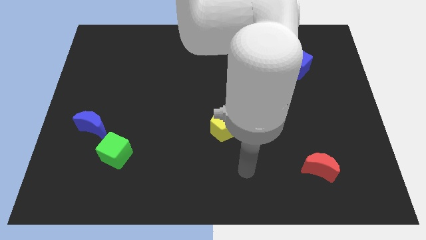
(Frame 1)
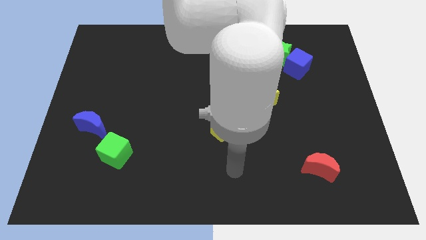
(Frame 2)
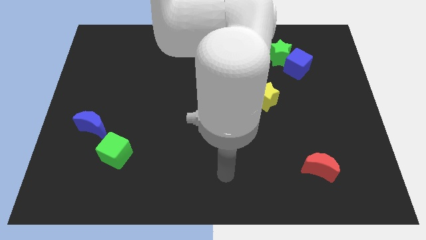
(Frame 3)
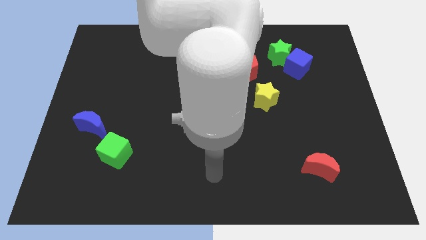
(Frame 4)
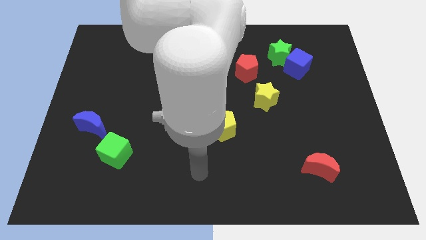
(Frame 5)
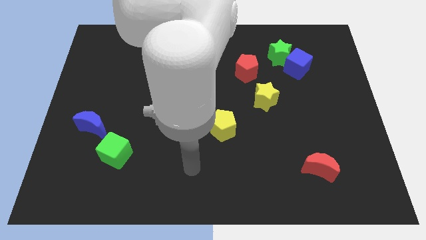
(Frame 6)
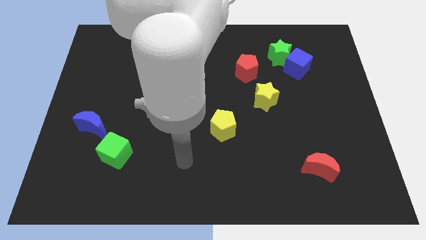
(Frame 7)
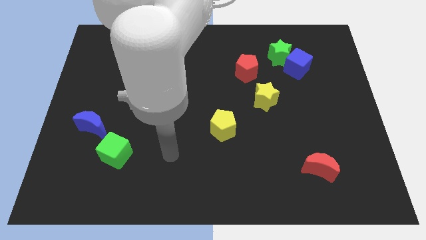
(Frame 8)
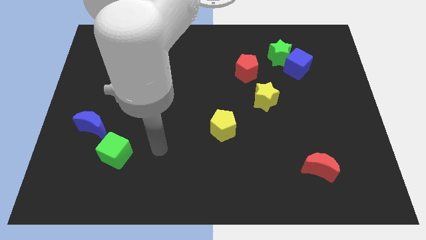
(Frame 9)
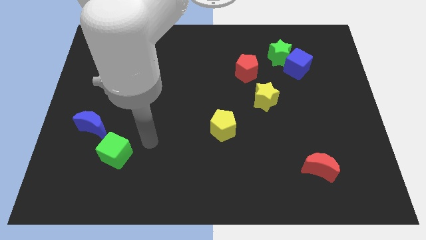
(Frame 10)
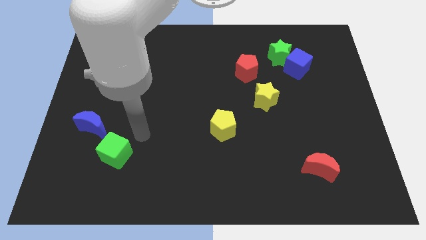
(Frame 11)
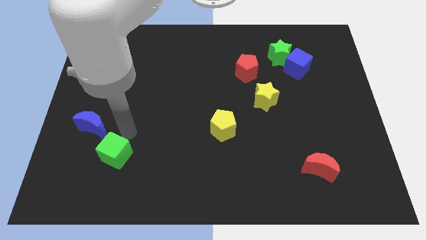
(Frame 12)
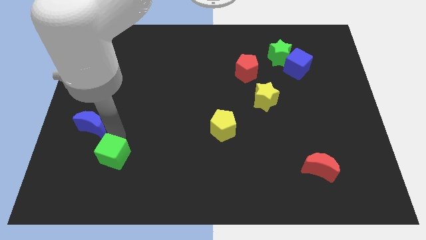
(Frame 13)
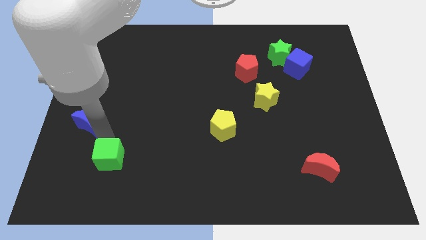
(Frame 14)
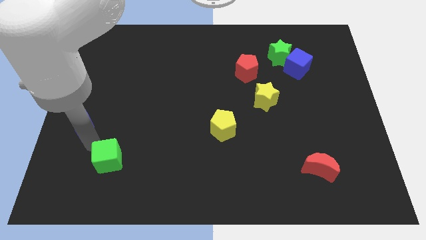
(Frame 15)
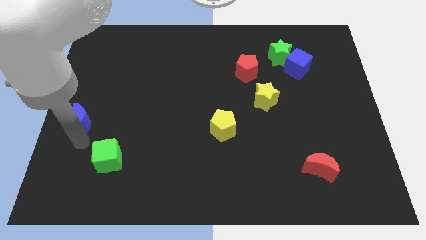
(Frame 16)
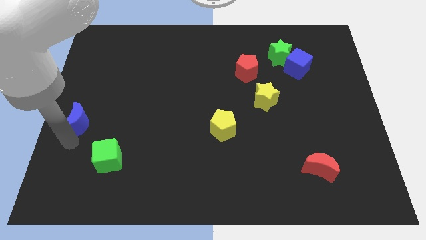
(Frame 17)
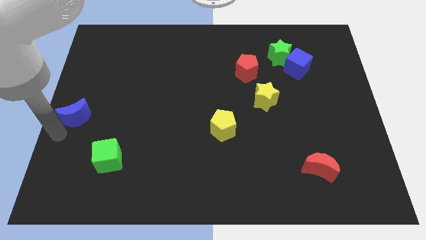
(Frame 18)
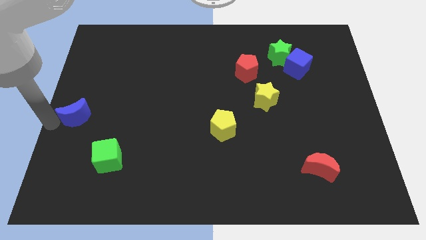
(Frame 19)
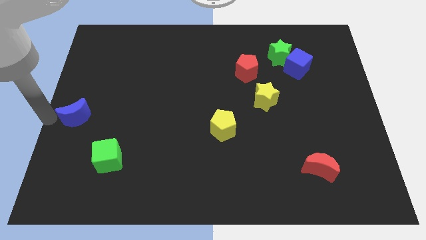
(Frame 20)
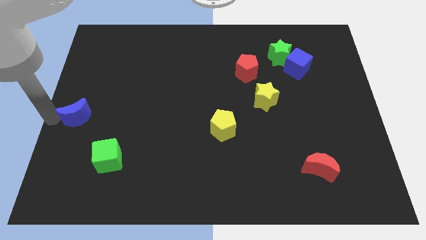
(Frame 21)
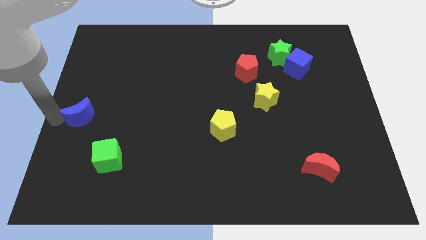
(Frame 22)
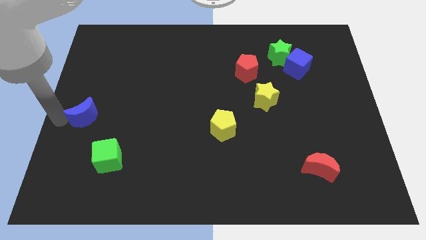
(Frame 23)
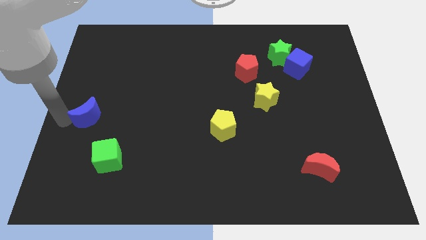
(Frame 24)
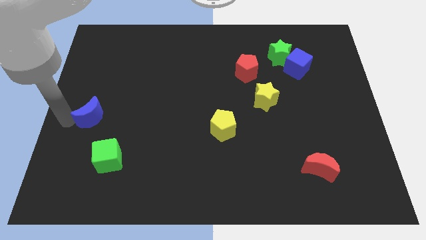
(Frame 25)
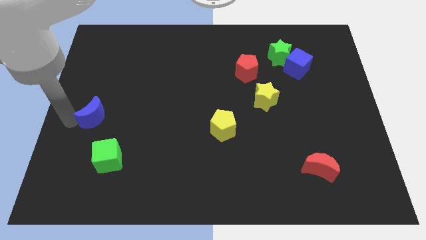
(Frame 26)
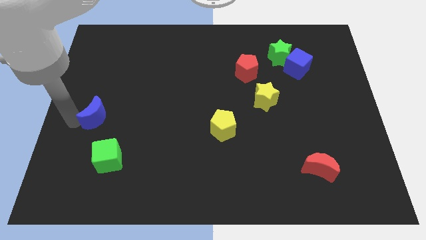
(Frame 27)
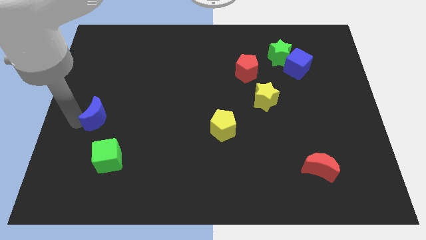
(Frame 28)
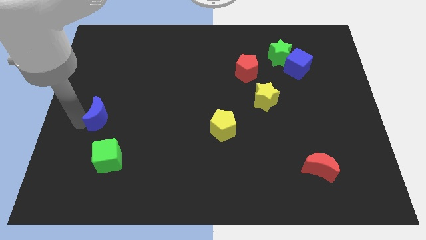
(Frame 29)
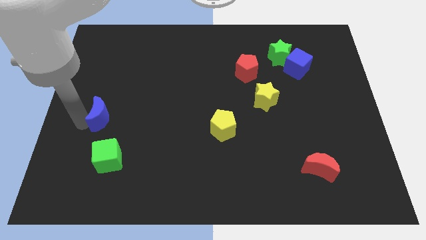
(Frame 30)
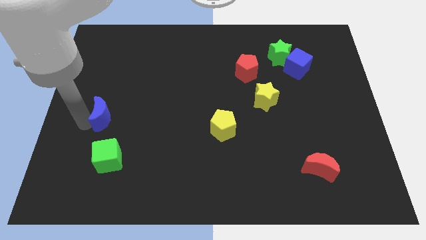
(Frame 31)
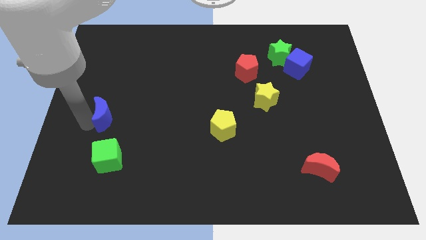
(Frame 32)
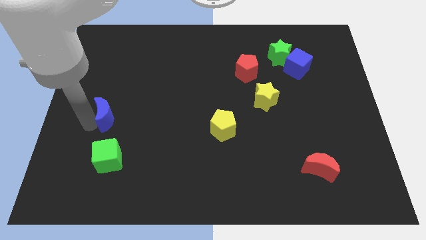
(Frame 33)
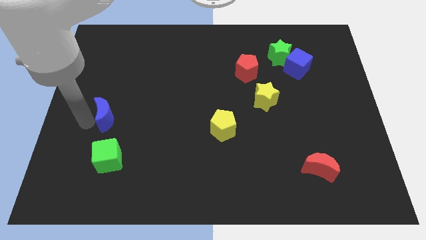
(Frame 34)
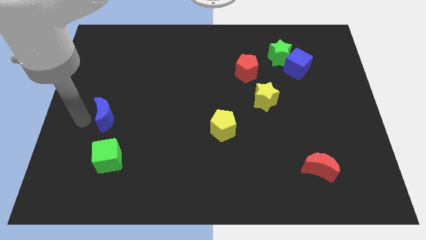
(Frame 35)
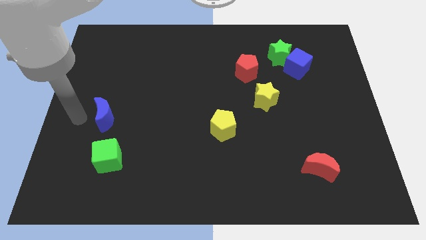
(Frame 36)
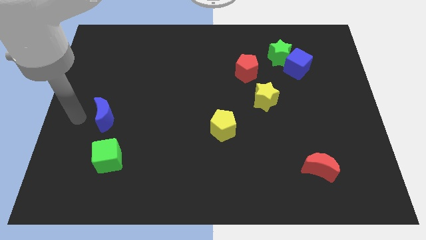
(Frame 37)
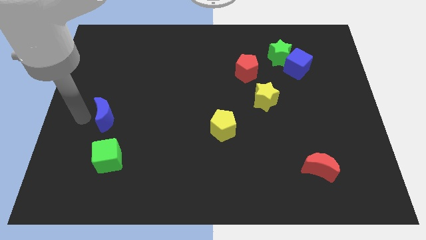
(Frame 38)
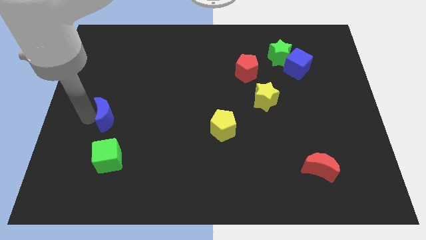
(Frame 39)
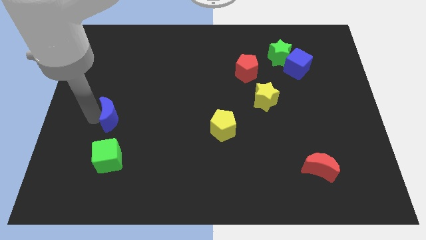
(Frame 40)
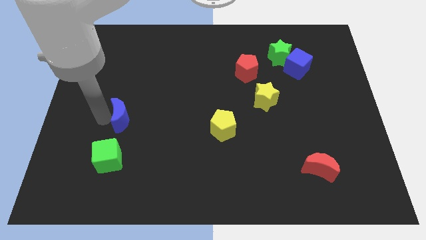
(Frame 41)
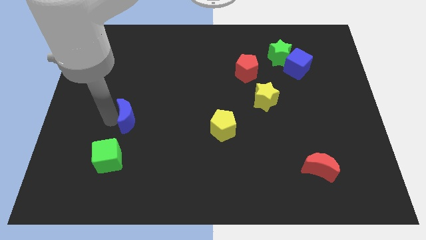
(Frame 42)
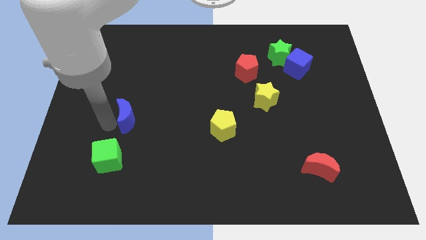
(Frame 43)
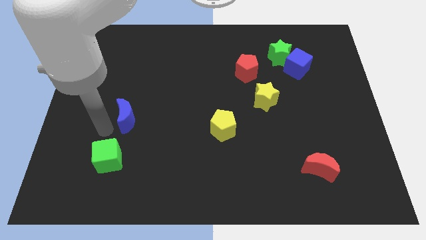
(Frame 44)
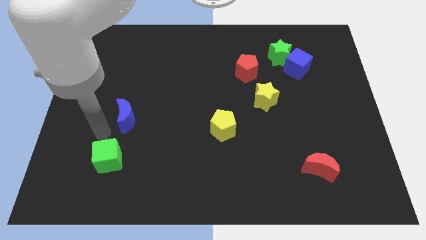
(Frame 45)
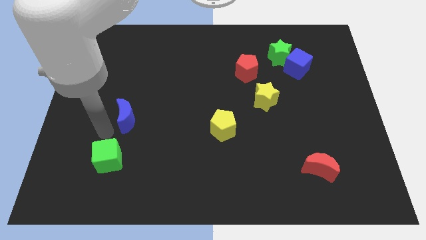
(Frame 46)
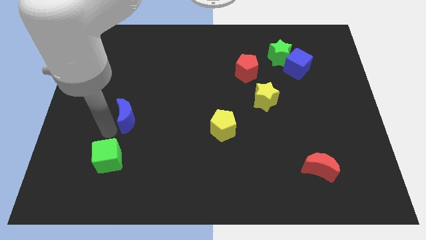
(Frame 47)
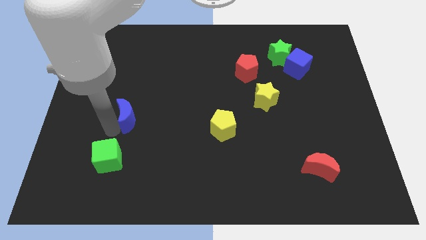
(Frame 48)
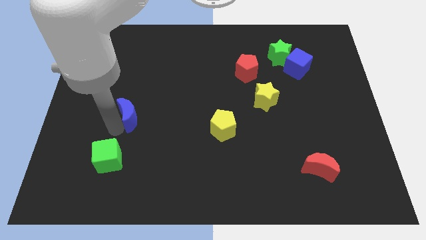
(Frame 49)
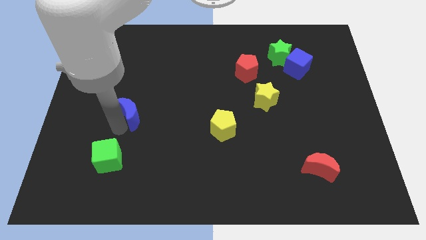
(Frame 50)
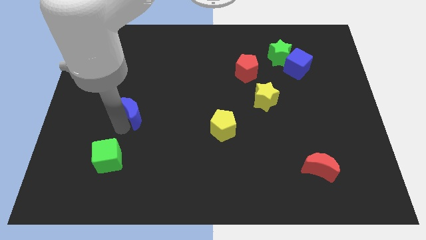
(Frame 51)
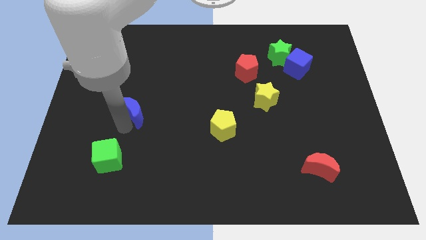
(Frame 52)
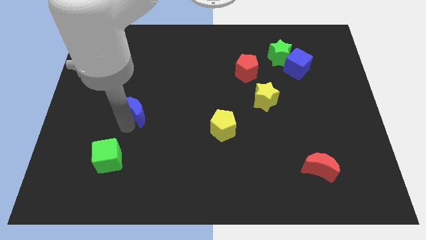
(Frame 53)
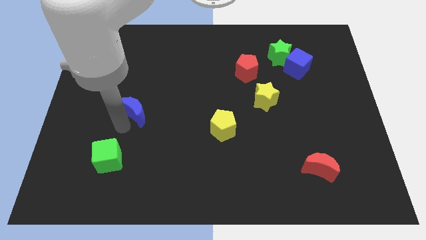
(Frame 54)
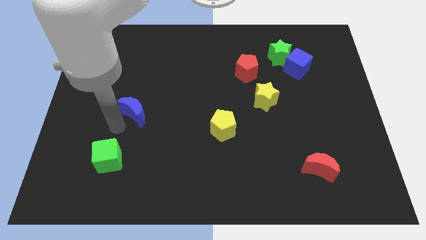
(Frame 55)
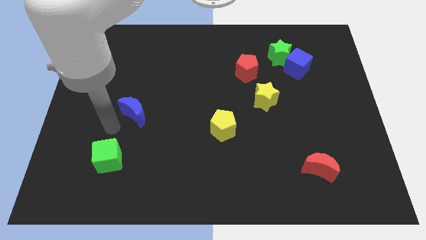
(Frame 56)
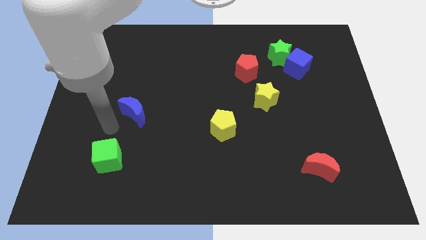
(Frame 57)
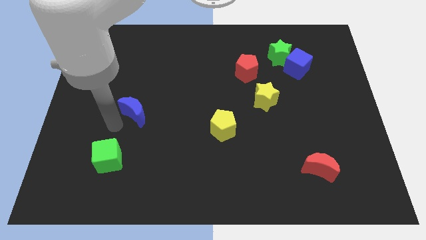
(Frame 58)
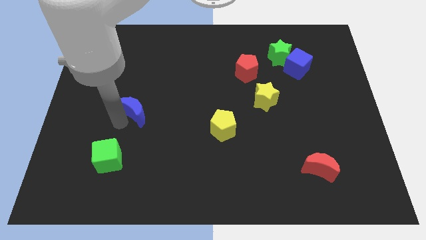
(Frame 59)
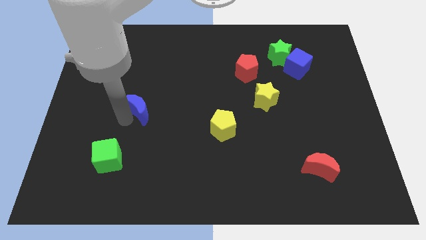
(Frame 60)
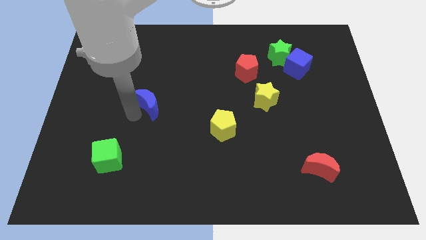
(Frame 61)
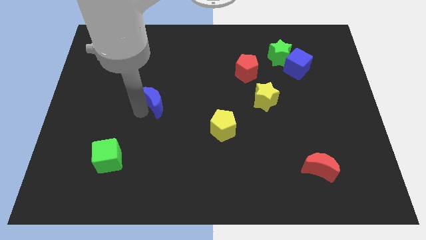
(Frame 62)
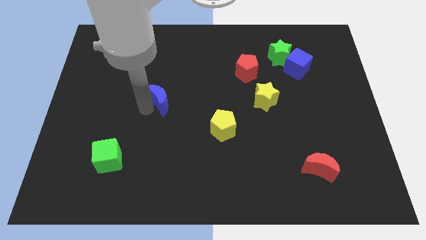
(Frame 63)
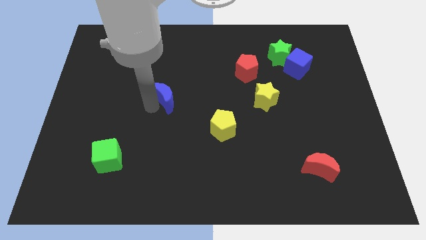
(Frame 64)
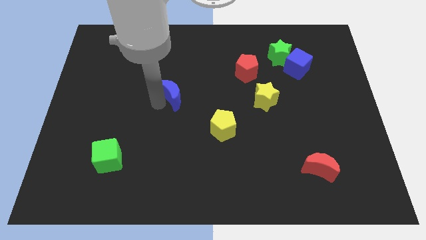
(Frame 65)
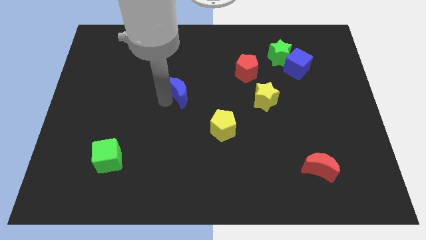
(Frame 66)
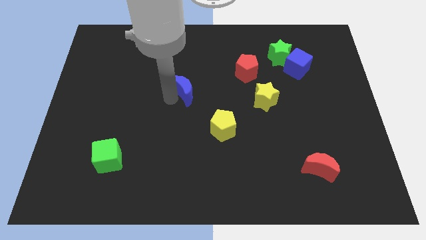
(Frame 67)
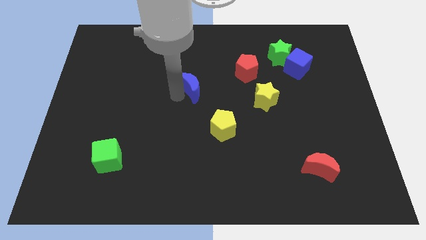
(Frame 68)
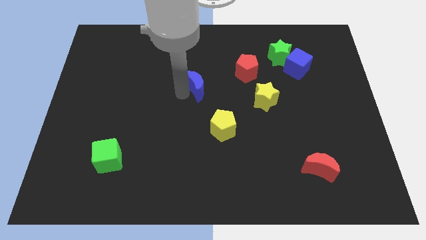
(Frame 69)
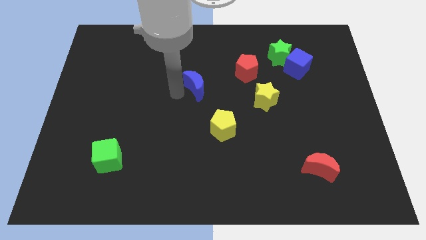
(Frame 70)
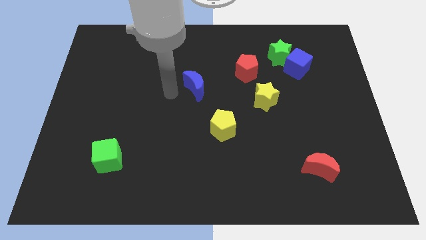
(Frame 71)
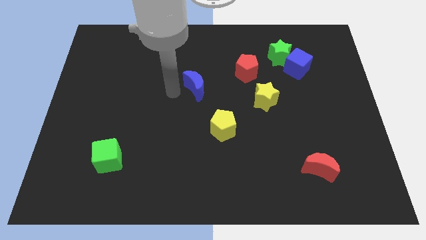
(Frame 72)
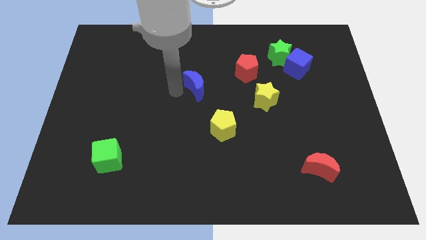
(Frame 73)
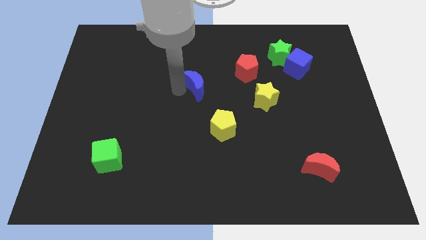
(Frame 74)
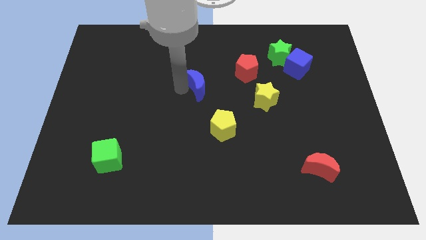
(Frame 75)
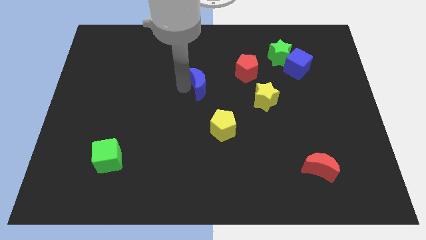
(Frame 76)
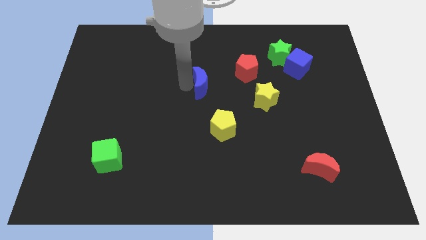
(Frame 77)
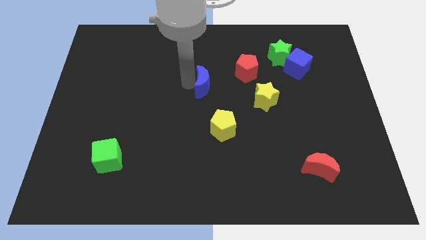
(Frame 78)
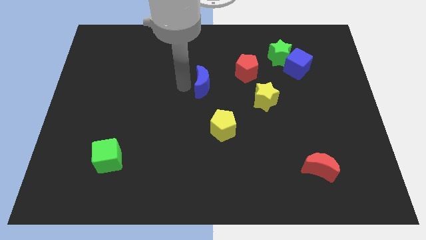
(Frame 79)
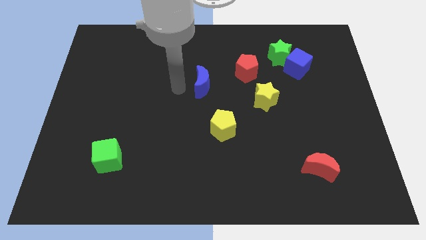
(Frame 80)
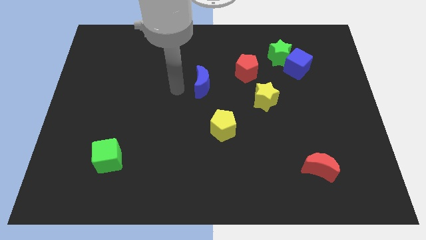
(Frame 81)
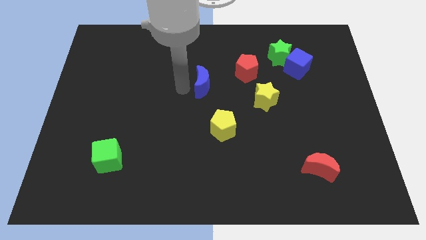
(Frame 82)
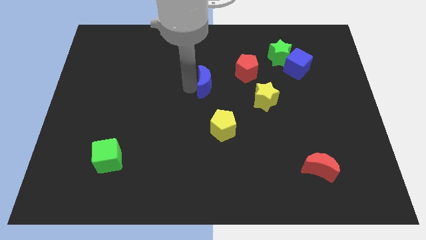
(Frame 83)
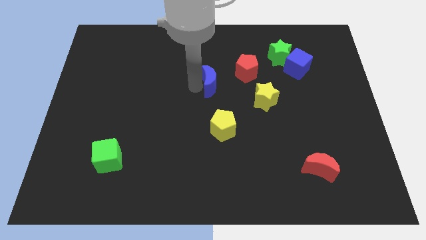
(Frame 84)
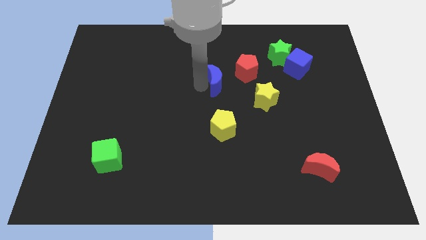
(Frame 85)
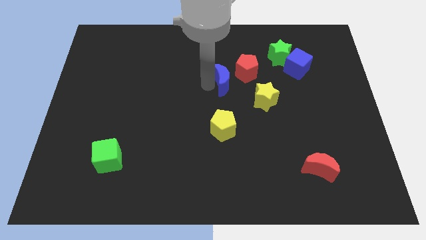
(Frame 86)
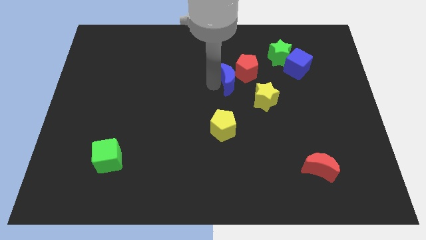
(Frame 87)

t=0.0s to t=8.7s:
slide the blue moon towards the red pentagon
